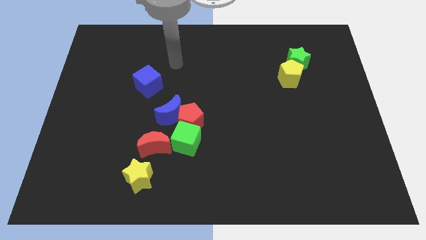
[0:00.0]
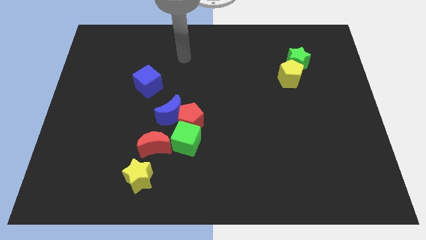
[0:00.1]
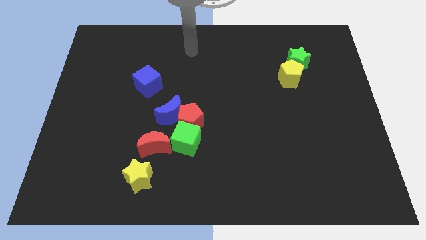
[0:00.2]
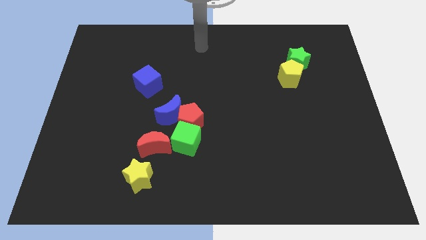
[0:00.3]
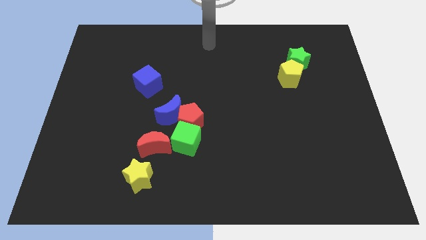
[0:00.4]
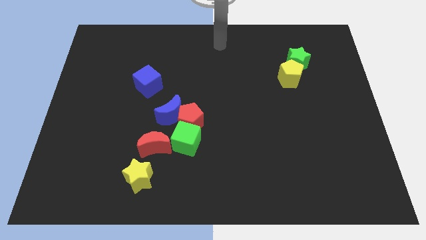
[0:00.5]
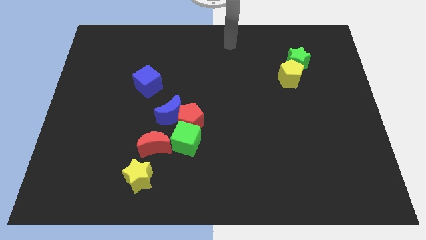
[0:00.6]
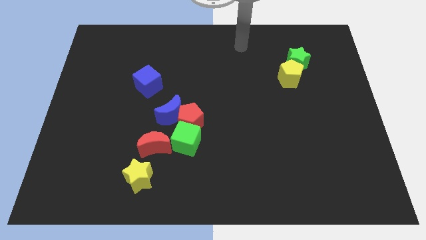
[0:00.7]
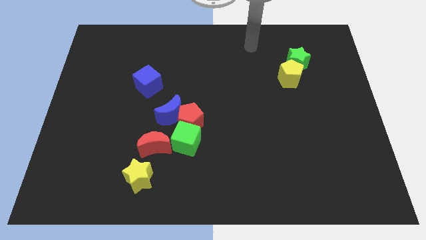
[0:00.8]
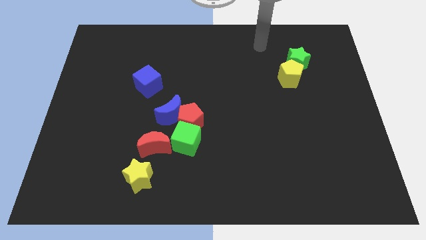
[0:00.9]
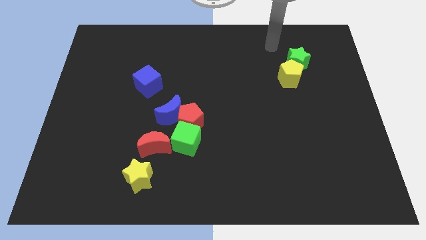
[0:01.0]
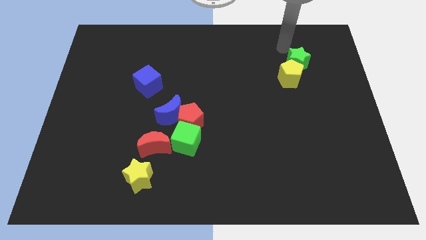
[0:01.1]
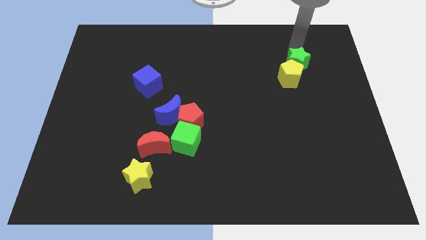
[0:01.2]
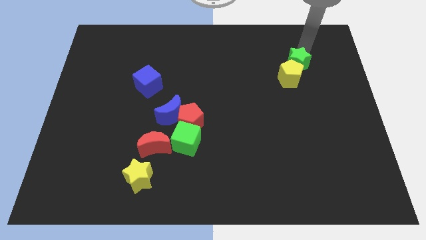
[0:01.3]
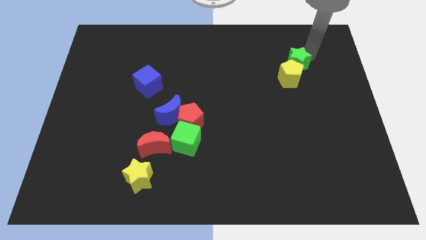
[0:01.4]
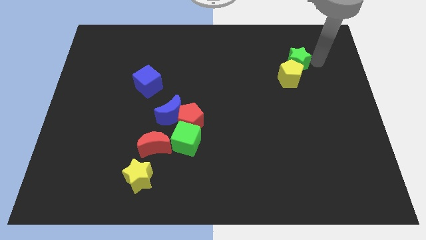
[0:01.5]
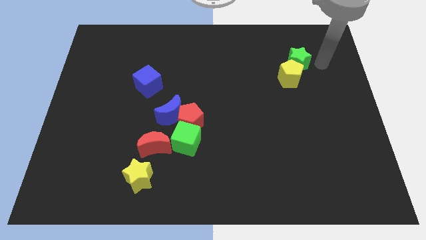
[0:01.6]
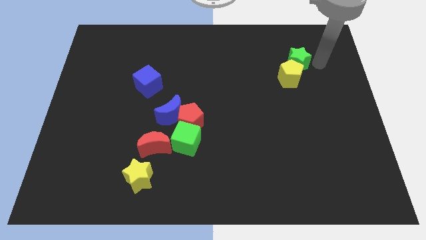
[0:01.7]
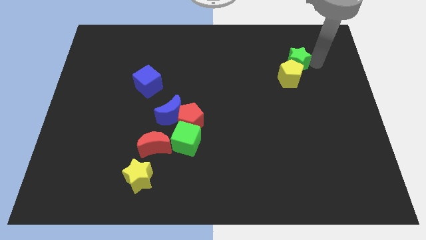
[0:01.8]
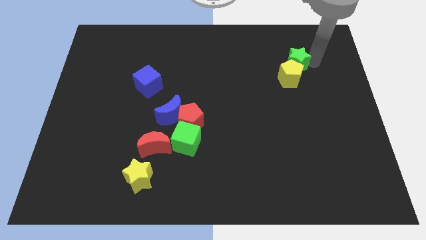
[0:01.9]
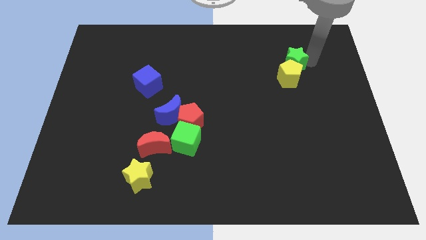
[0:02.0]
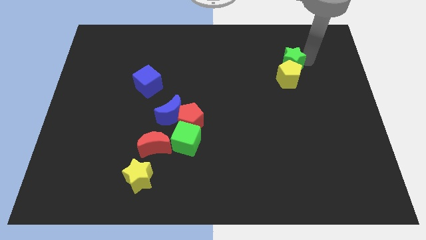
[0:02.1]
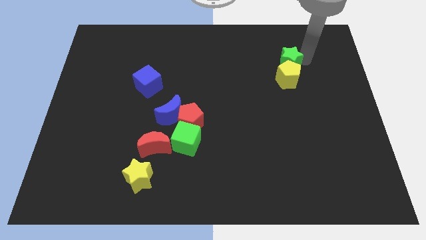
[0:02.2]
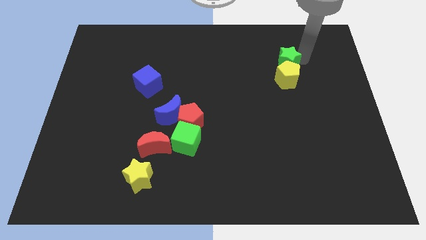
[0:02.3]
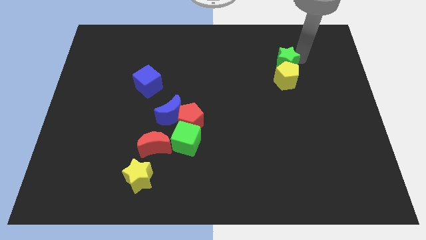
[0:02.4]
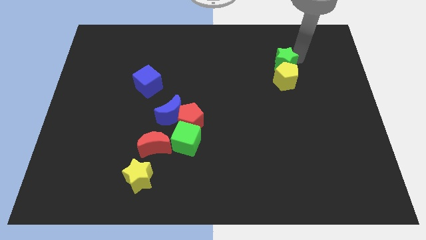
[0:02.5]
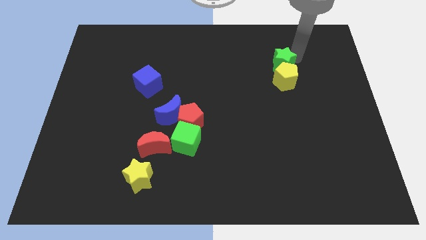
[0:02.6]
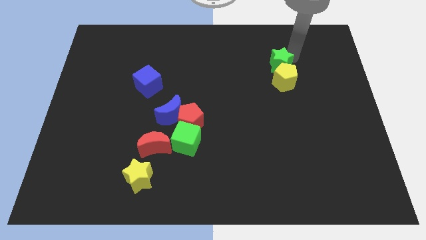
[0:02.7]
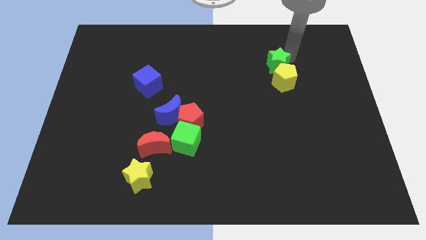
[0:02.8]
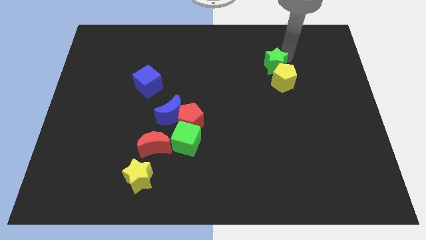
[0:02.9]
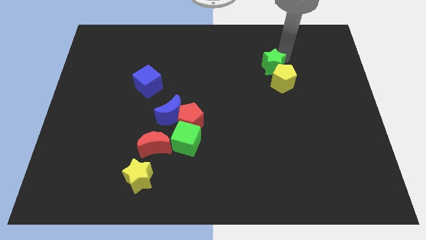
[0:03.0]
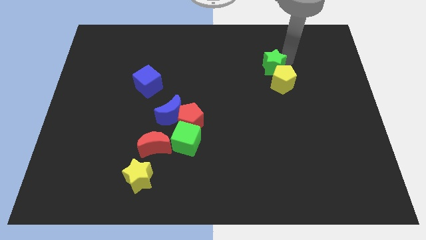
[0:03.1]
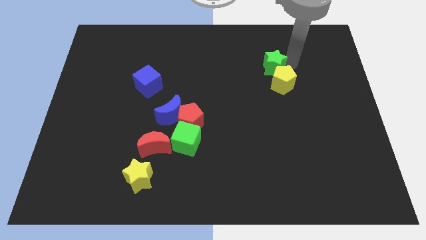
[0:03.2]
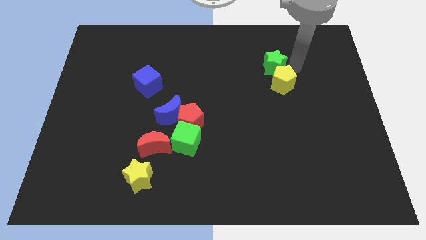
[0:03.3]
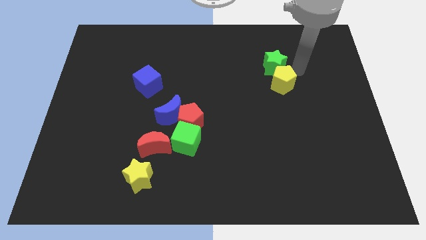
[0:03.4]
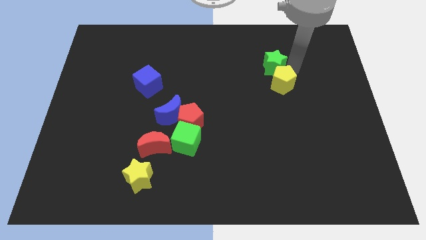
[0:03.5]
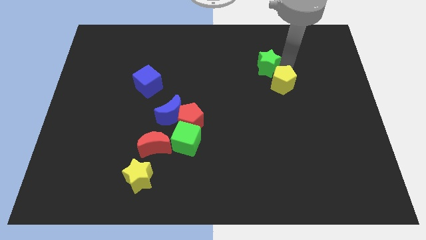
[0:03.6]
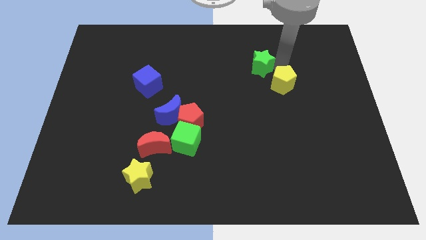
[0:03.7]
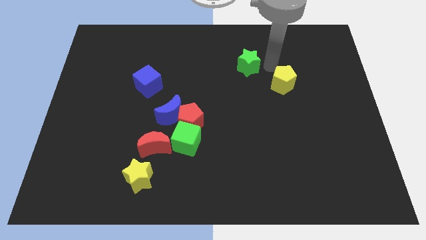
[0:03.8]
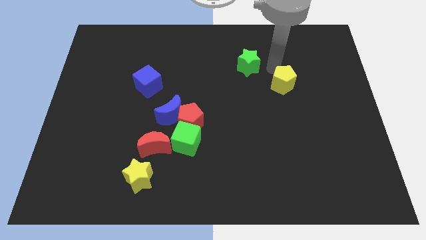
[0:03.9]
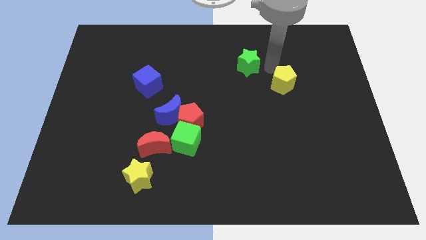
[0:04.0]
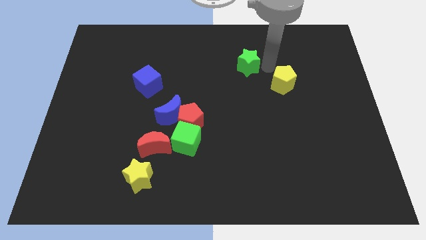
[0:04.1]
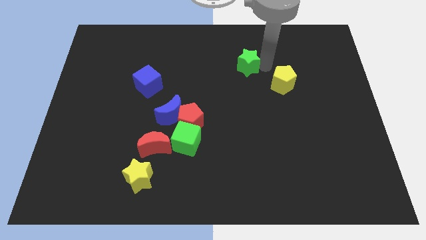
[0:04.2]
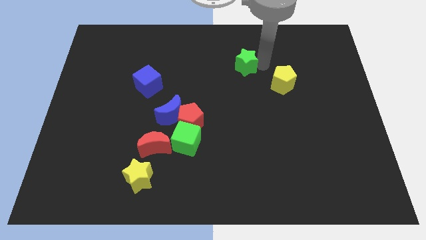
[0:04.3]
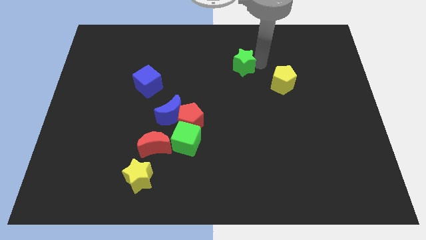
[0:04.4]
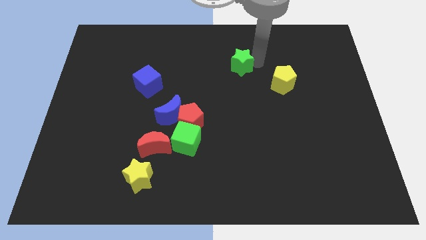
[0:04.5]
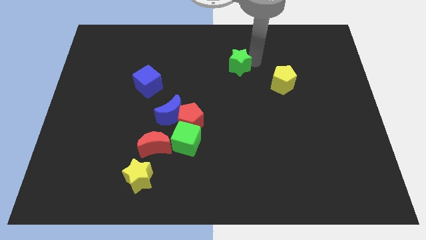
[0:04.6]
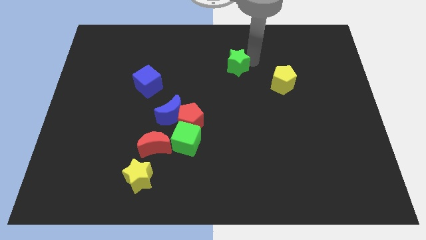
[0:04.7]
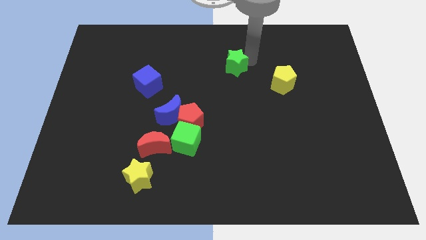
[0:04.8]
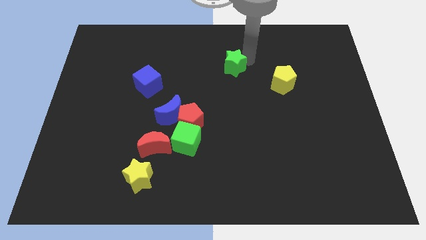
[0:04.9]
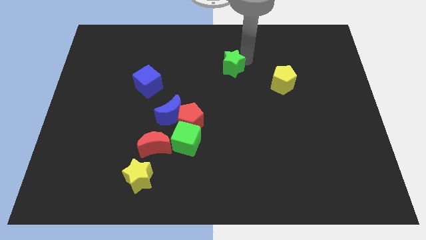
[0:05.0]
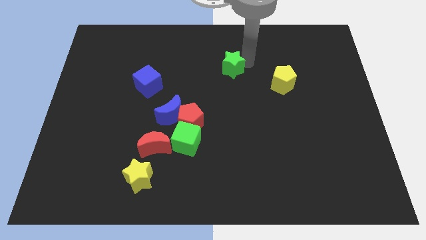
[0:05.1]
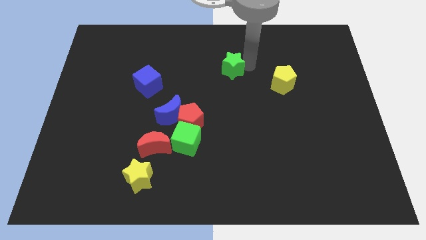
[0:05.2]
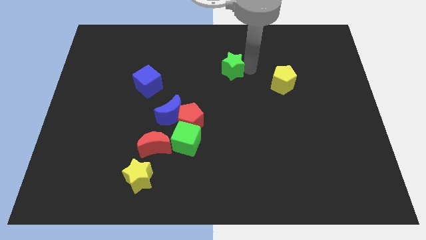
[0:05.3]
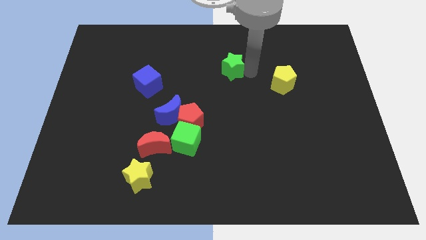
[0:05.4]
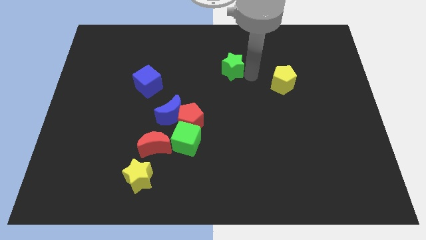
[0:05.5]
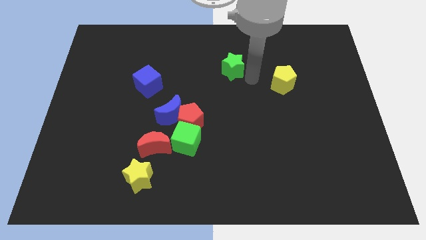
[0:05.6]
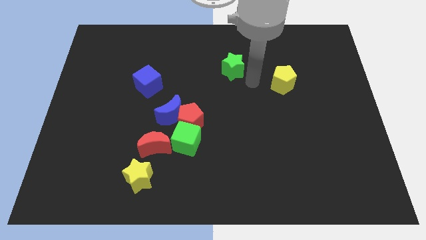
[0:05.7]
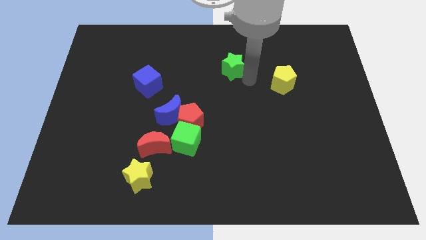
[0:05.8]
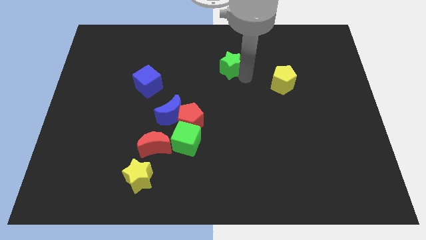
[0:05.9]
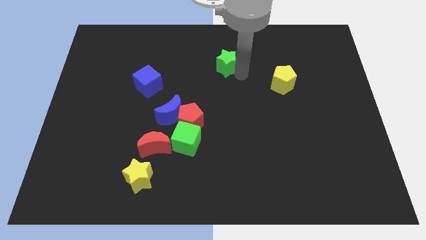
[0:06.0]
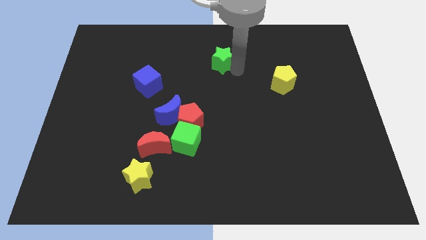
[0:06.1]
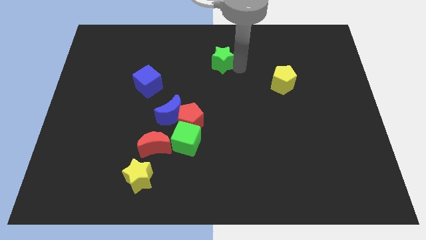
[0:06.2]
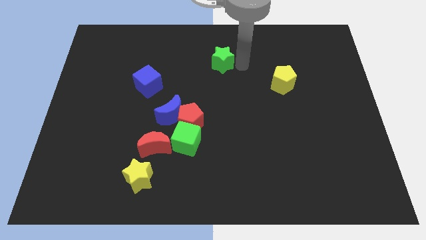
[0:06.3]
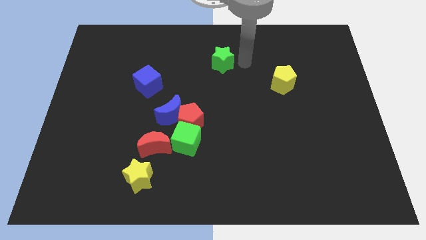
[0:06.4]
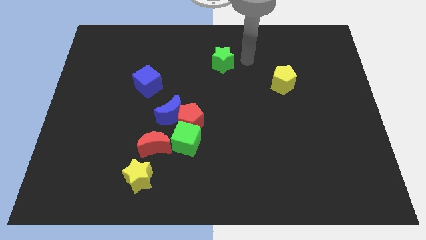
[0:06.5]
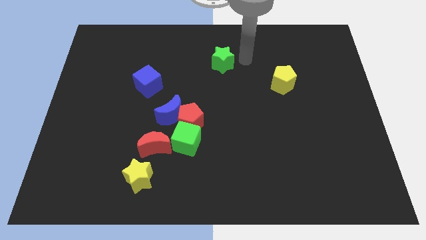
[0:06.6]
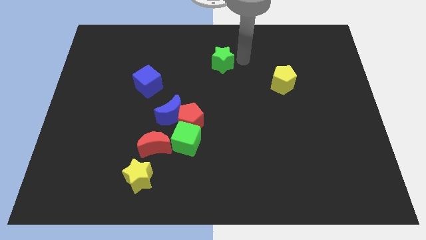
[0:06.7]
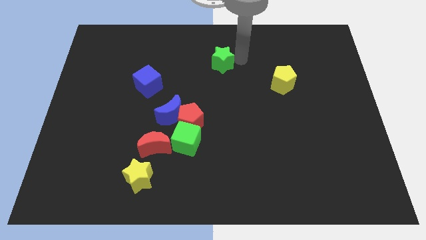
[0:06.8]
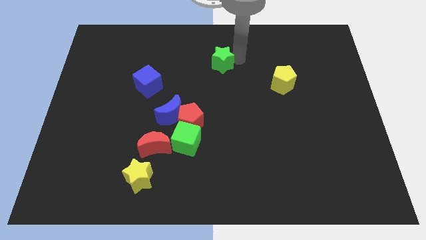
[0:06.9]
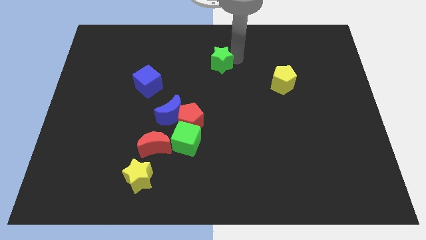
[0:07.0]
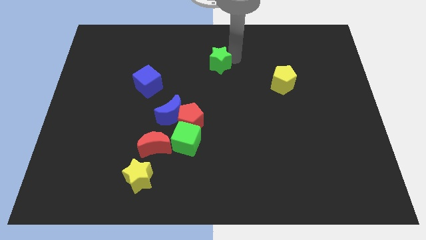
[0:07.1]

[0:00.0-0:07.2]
move the green star left

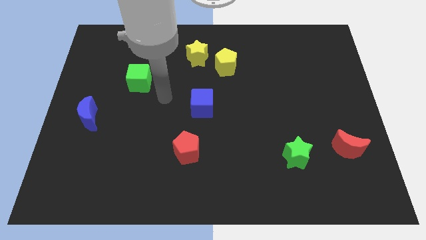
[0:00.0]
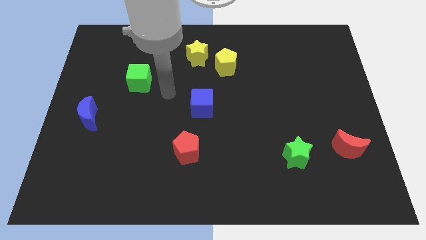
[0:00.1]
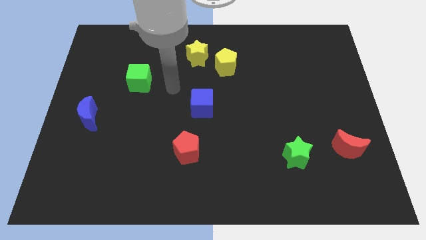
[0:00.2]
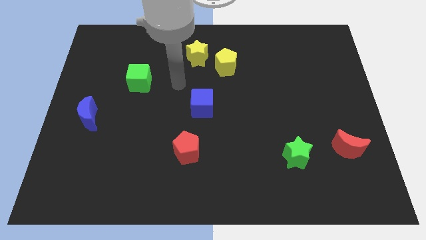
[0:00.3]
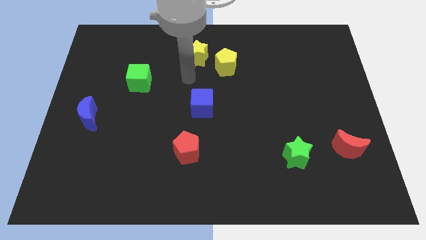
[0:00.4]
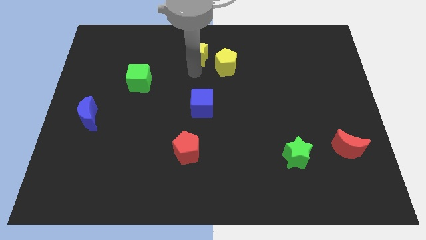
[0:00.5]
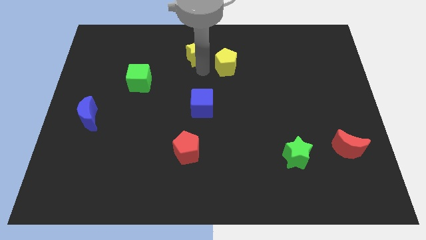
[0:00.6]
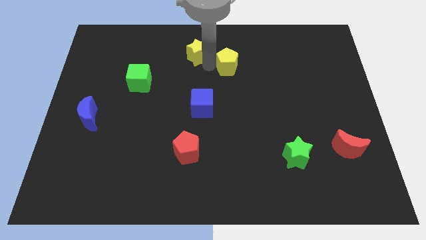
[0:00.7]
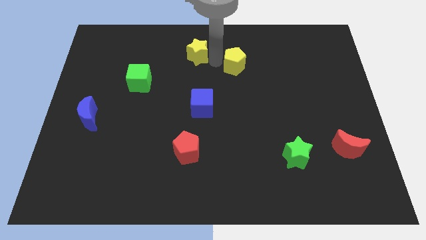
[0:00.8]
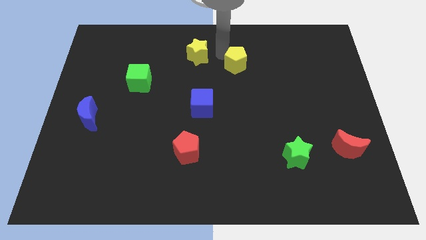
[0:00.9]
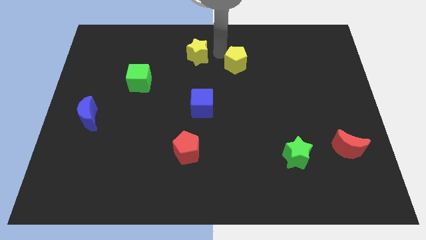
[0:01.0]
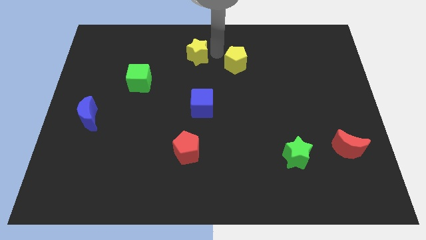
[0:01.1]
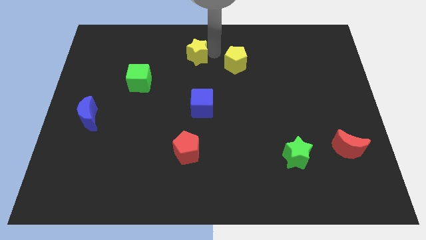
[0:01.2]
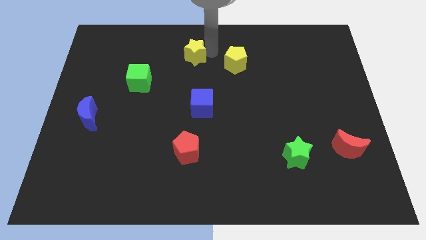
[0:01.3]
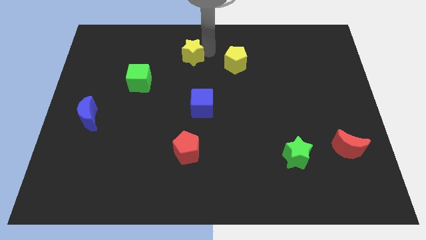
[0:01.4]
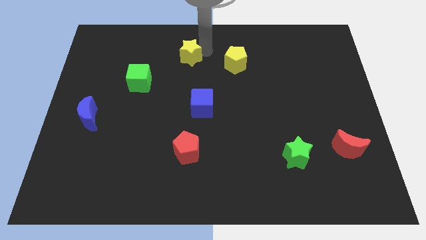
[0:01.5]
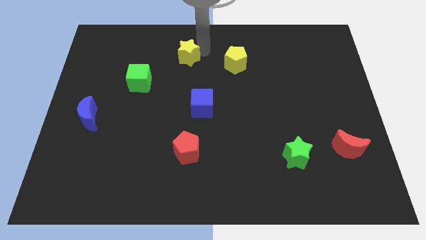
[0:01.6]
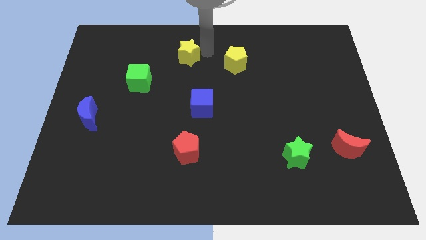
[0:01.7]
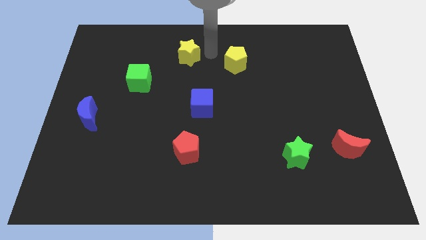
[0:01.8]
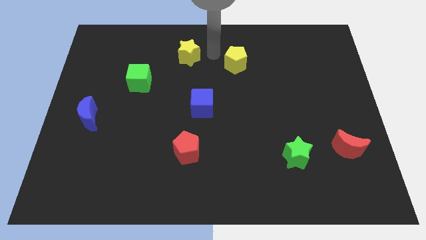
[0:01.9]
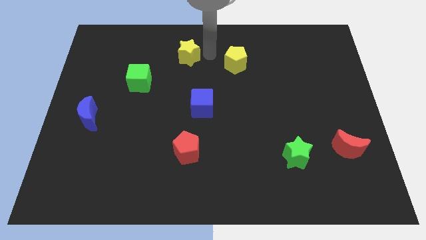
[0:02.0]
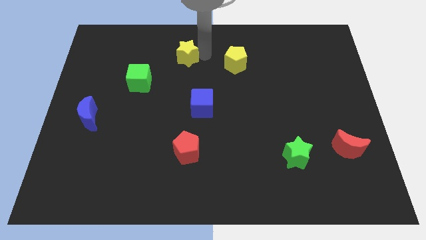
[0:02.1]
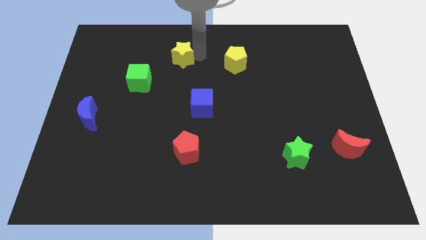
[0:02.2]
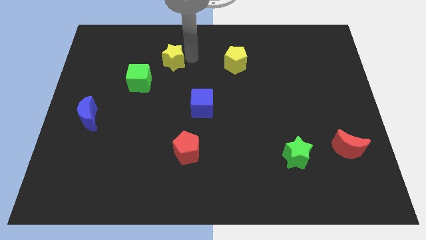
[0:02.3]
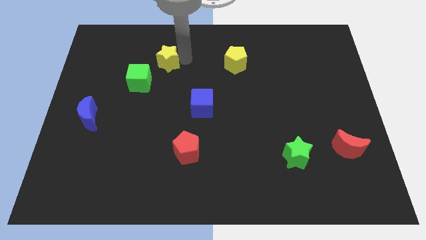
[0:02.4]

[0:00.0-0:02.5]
slightly push the yellow star left
